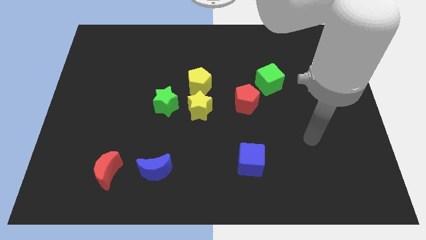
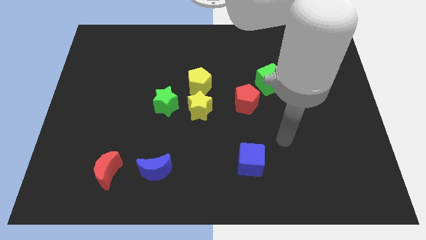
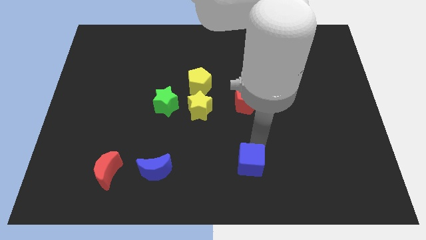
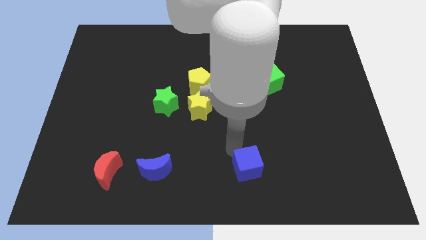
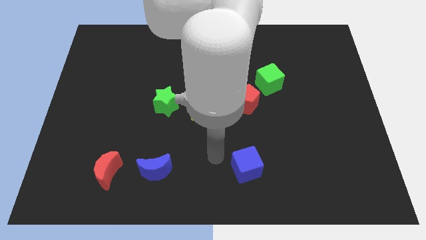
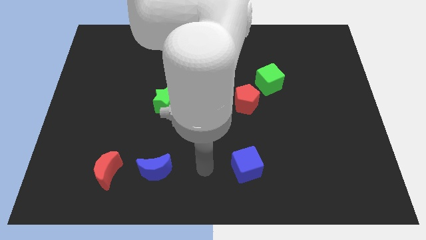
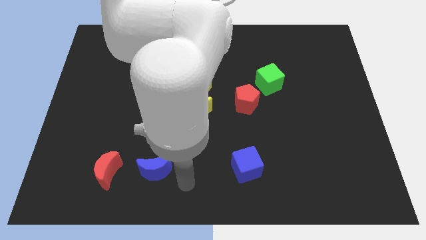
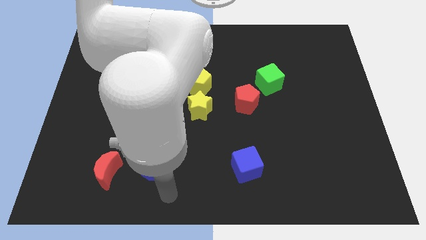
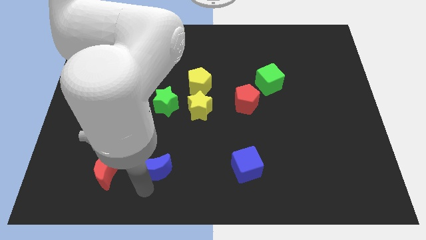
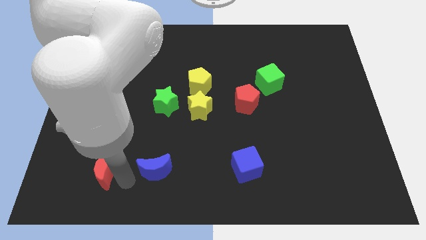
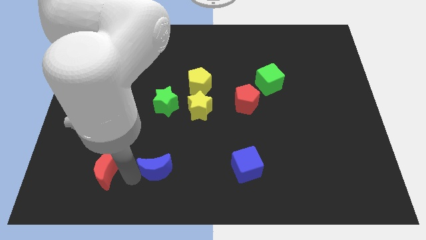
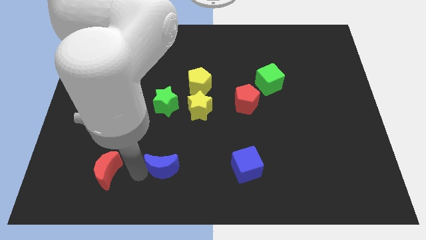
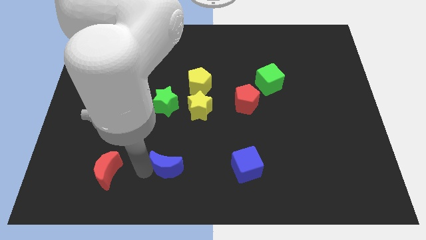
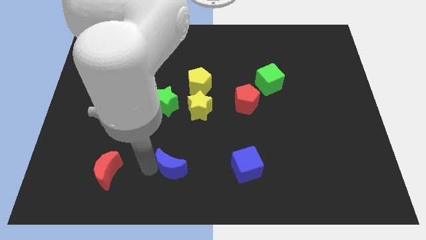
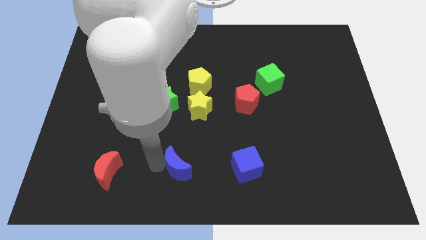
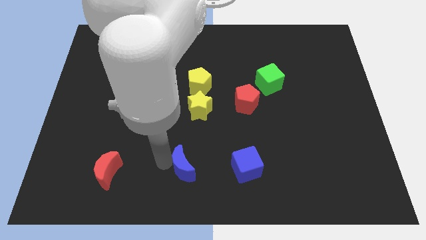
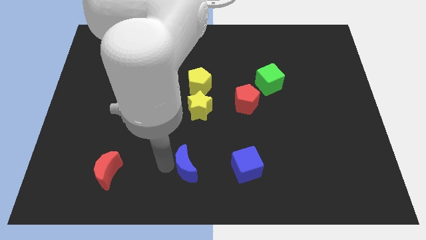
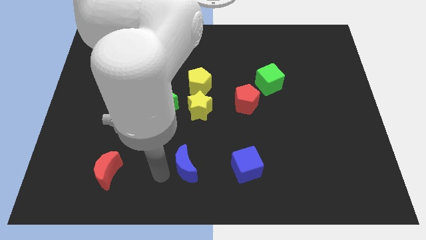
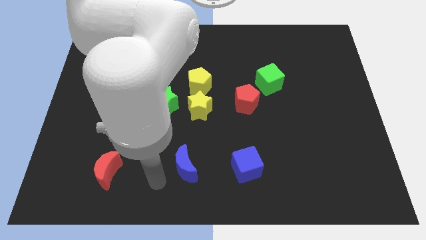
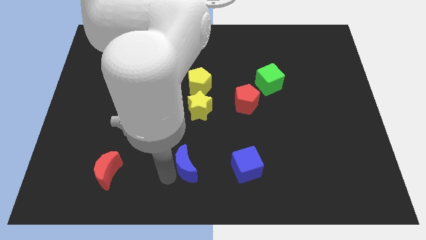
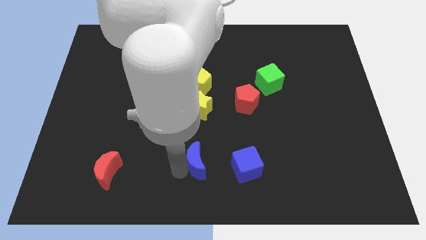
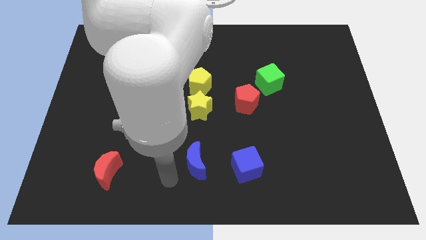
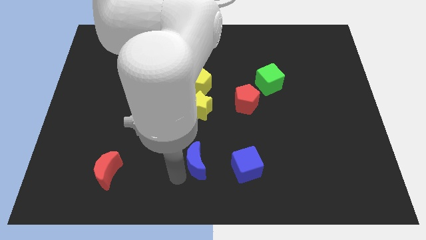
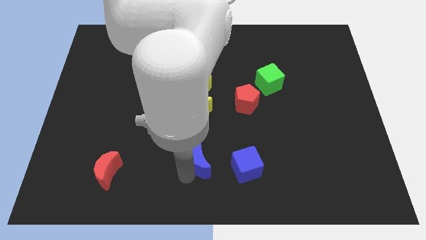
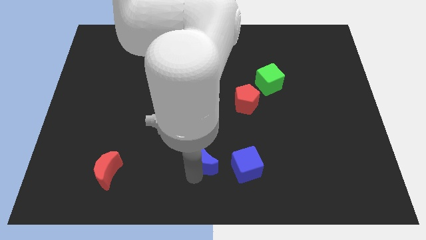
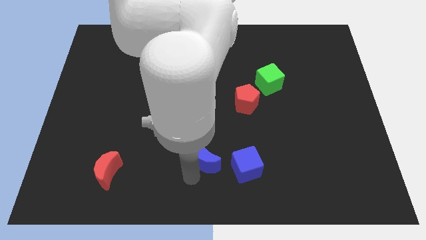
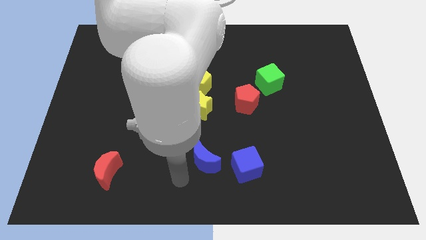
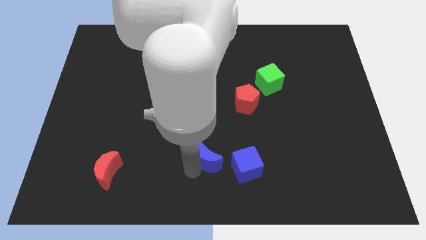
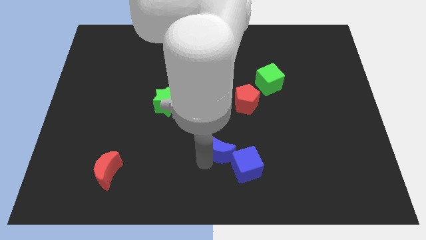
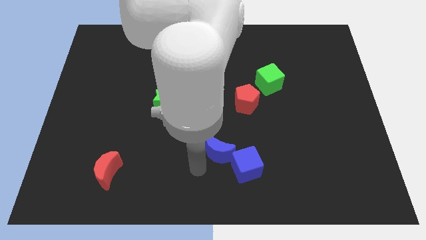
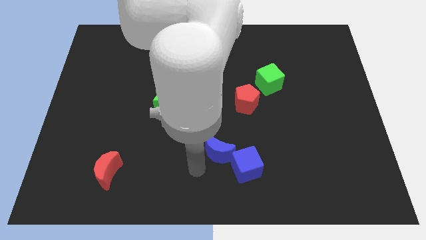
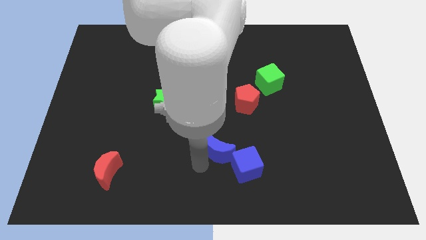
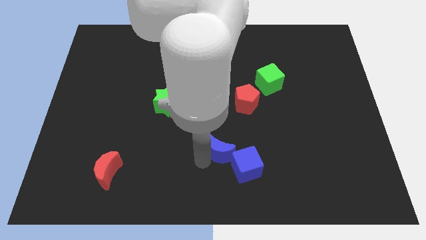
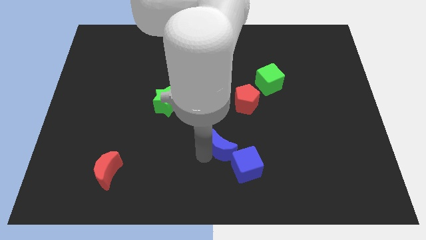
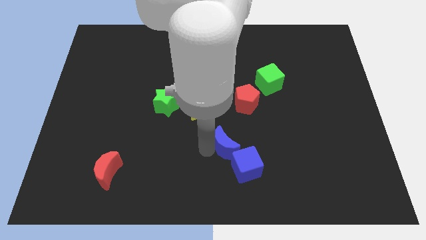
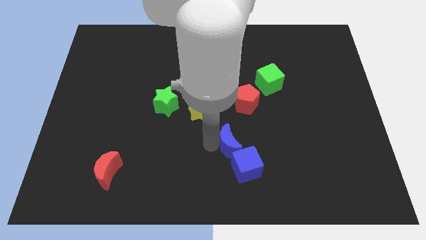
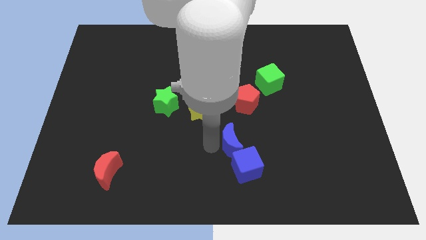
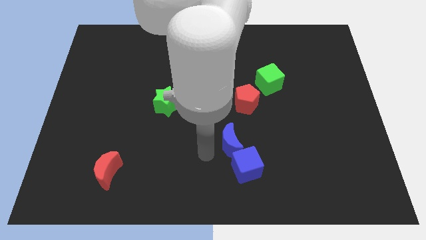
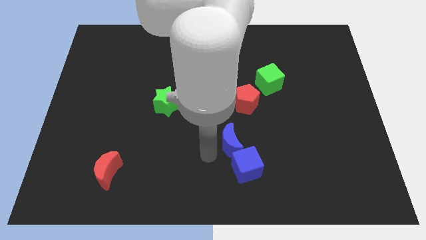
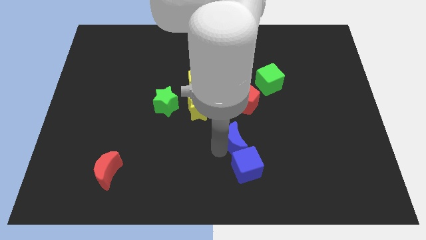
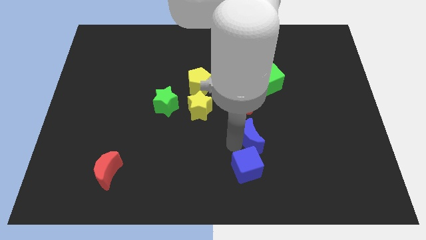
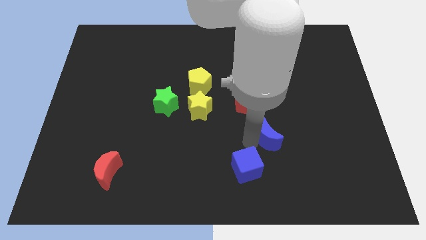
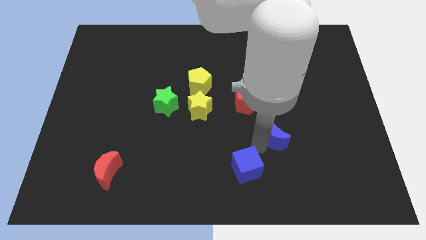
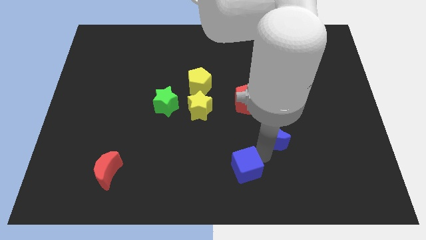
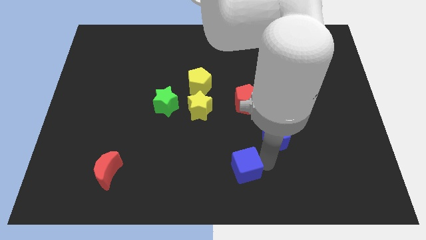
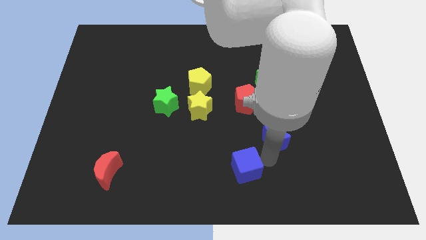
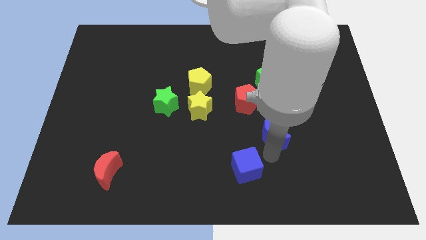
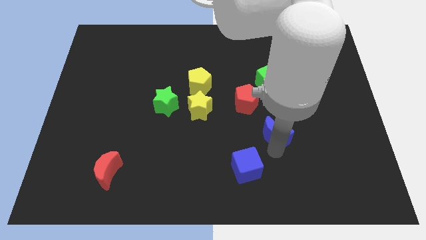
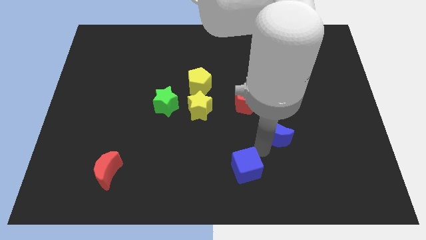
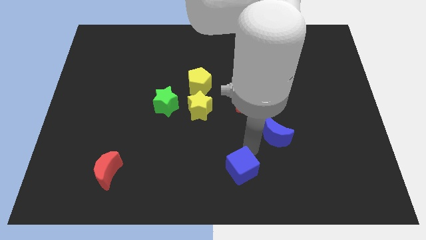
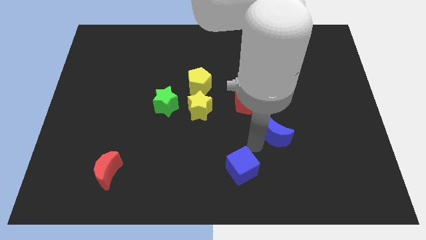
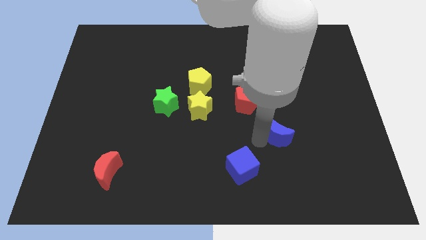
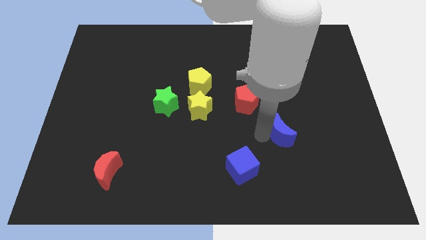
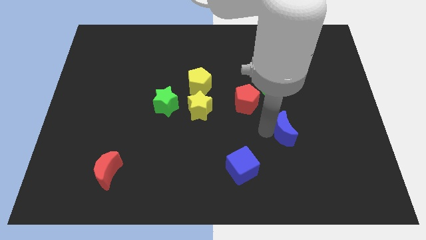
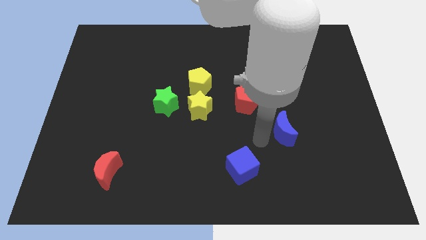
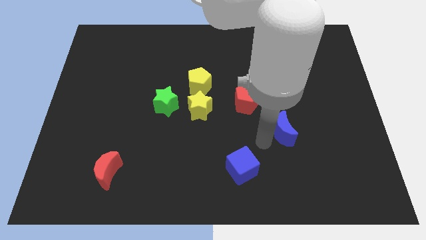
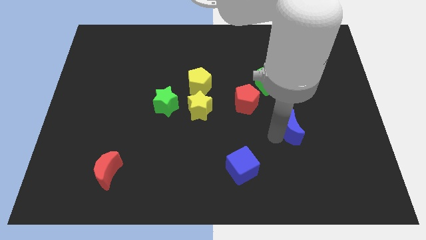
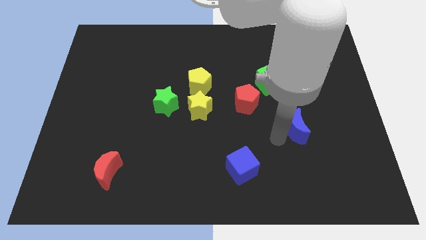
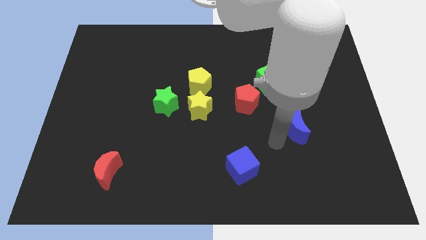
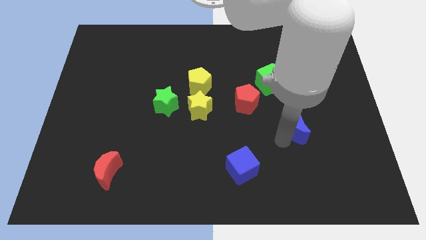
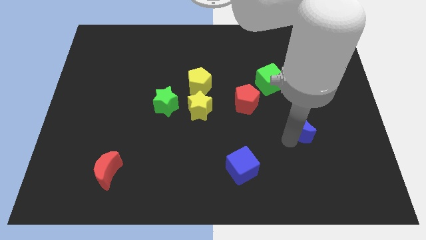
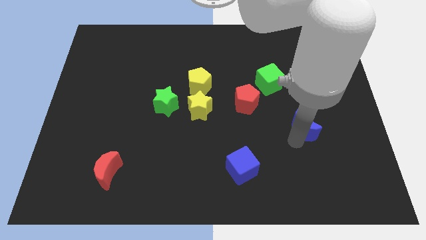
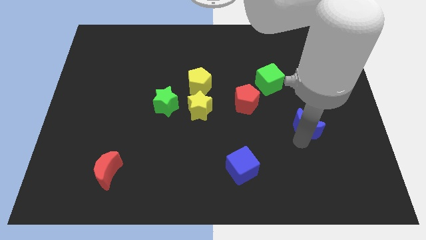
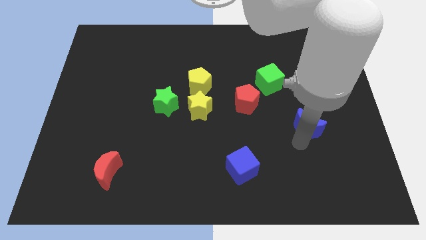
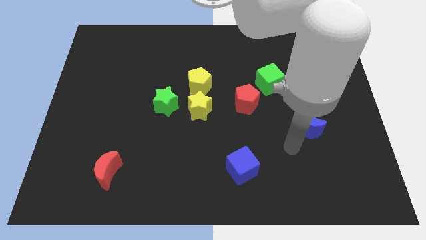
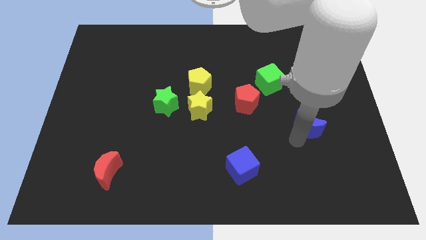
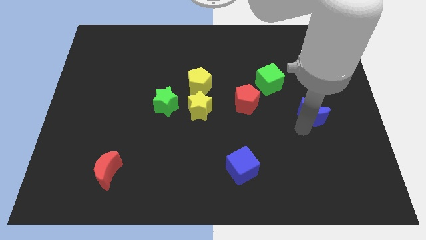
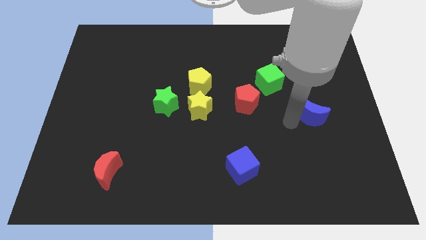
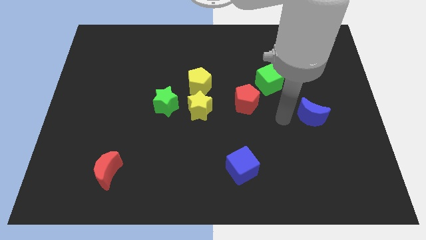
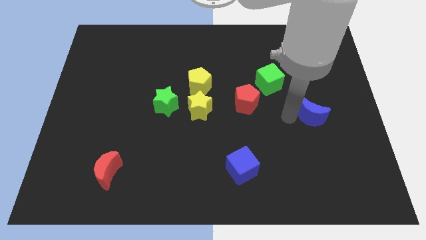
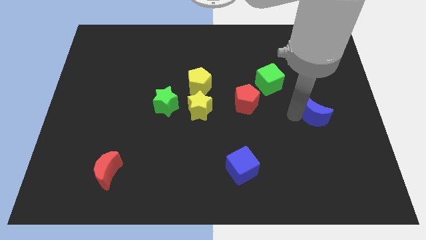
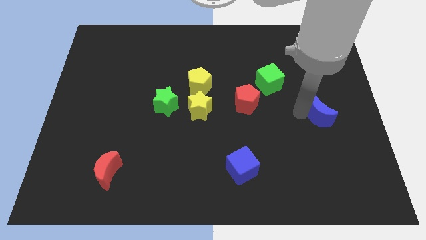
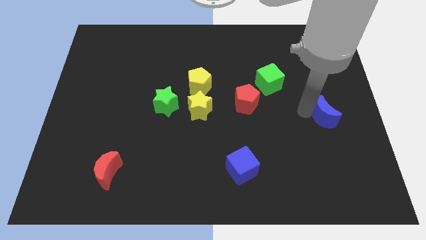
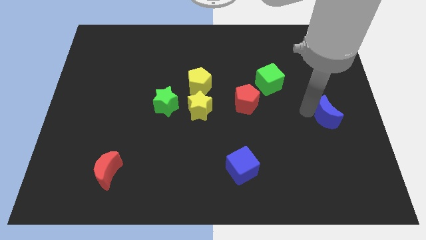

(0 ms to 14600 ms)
put the blue moon to the right side of the board

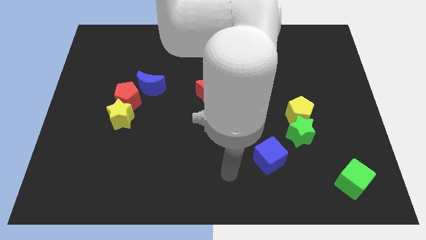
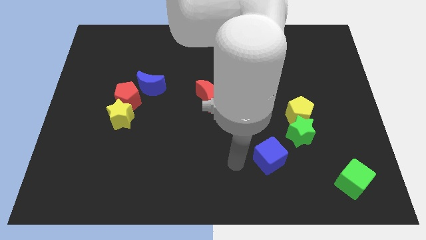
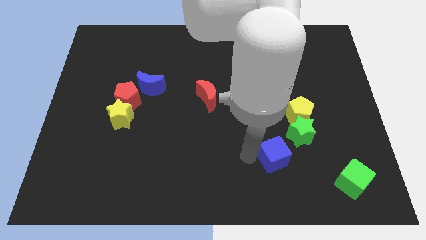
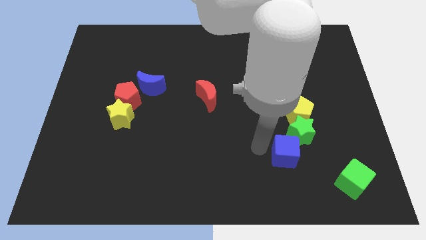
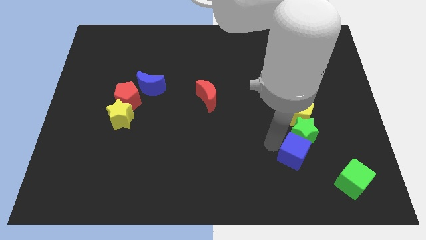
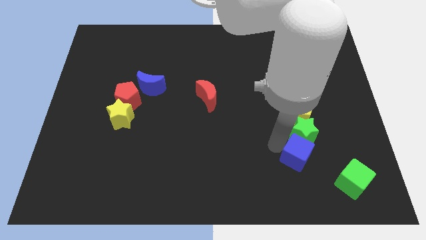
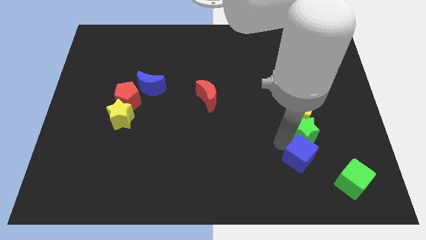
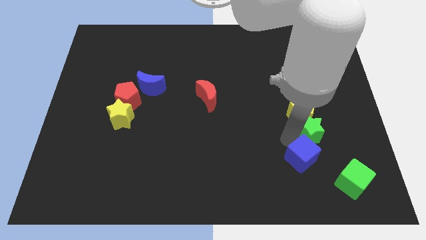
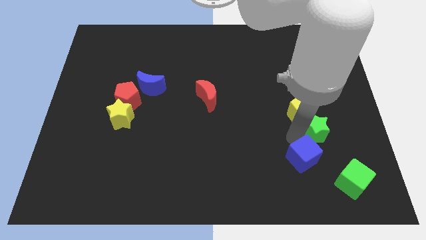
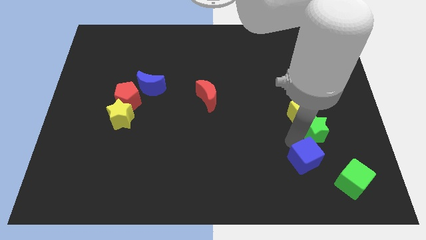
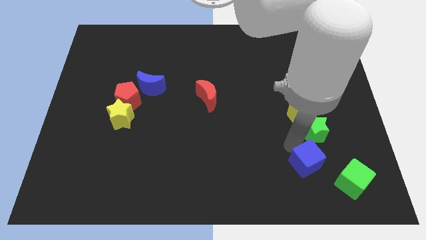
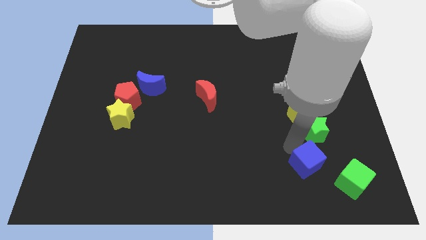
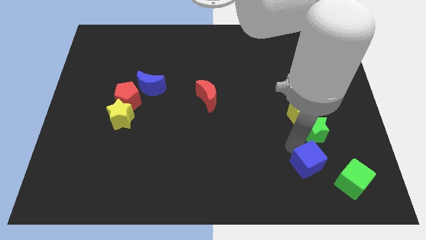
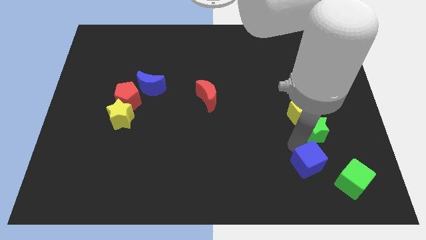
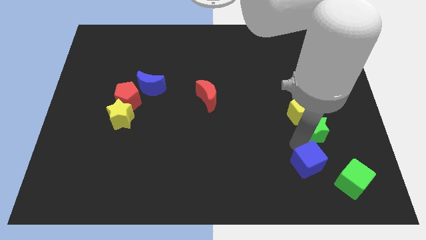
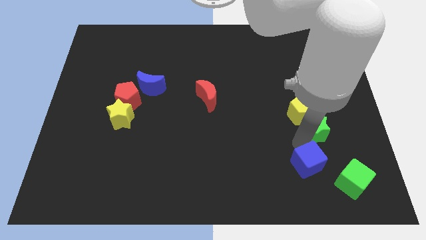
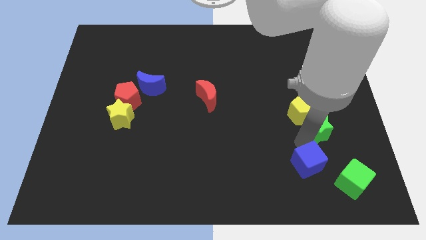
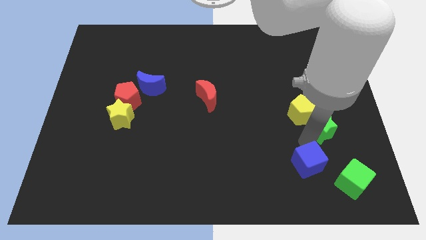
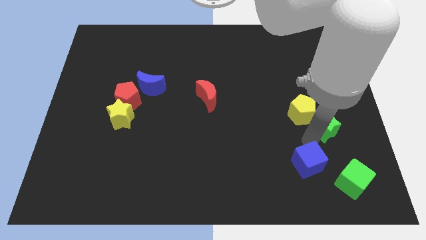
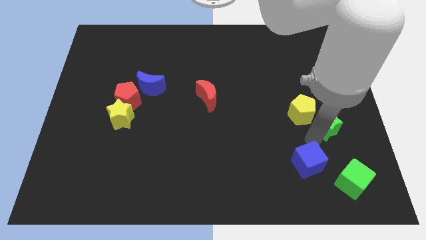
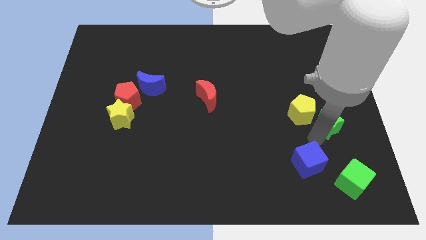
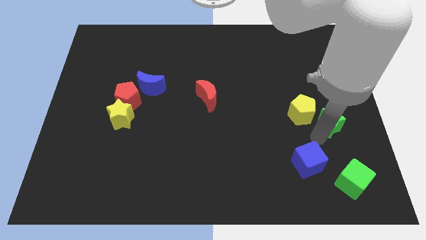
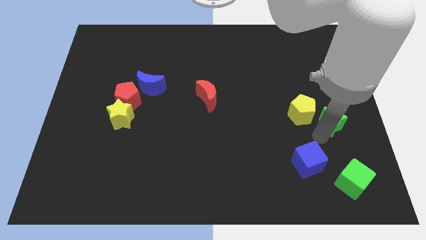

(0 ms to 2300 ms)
move the green star to the right side
